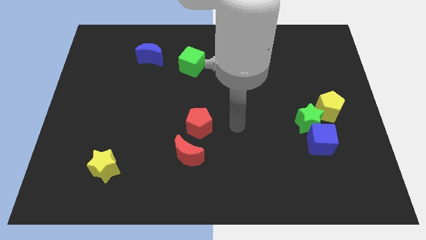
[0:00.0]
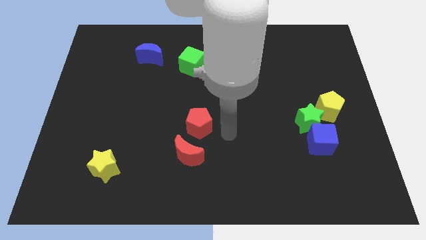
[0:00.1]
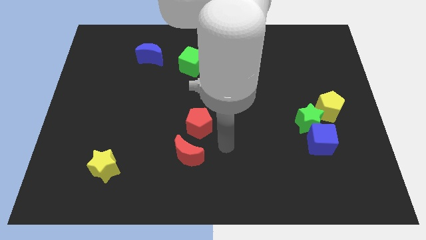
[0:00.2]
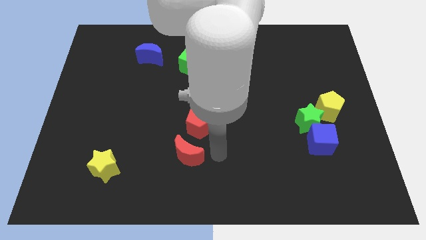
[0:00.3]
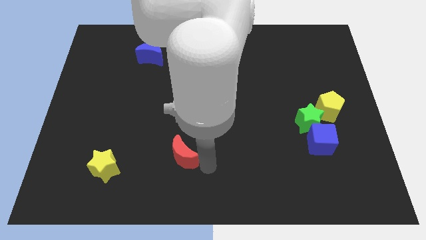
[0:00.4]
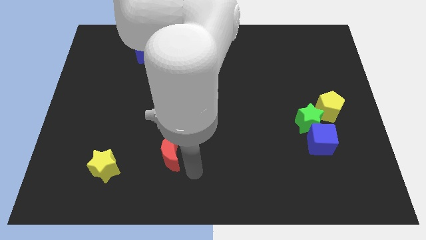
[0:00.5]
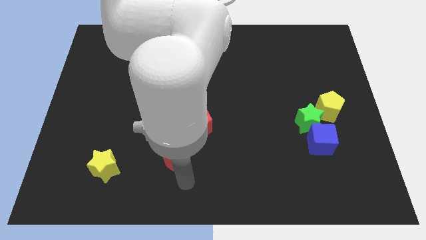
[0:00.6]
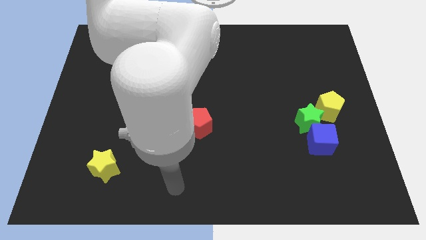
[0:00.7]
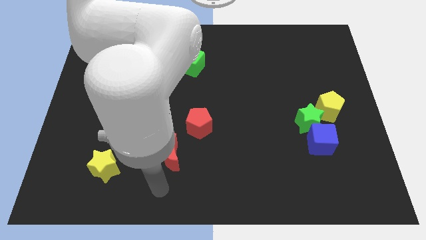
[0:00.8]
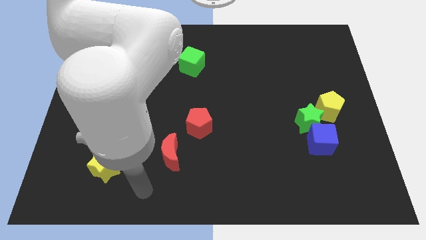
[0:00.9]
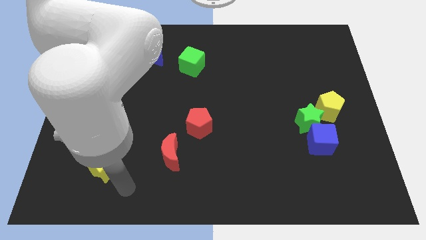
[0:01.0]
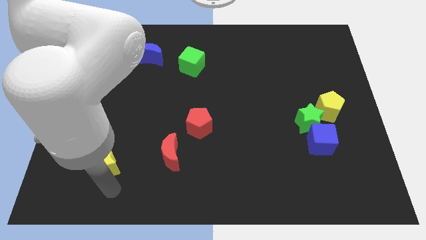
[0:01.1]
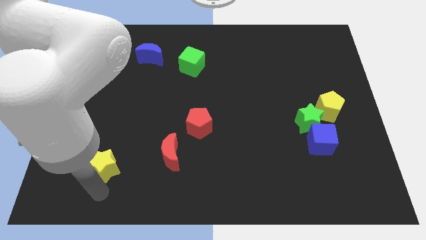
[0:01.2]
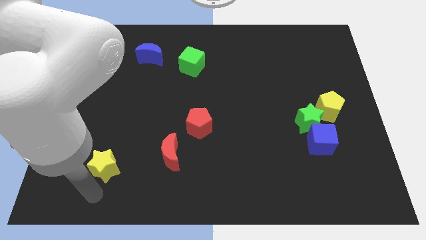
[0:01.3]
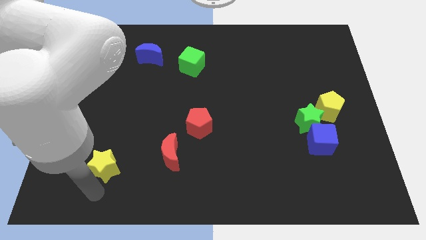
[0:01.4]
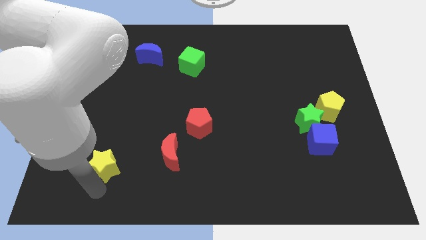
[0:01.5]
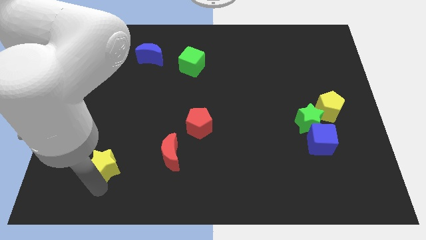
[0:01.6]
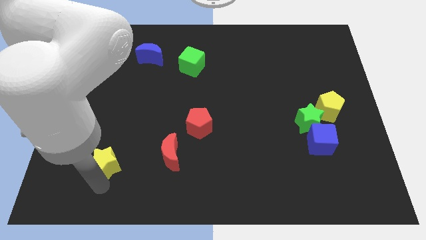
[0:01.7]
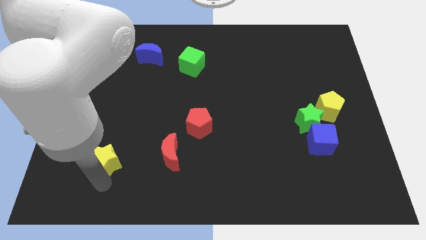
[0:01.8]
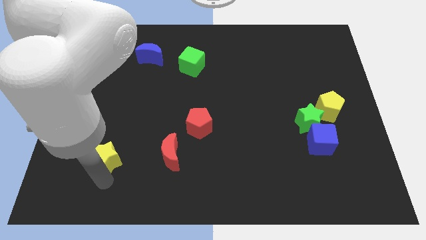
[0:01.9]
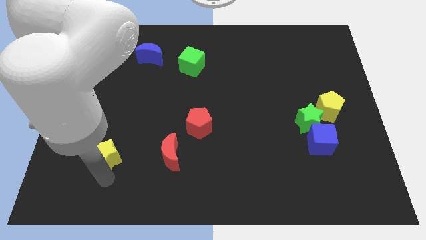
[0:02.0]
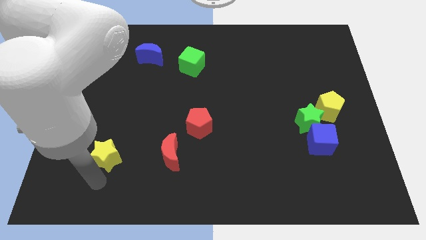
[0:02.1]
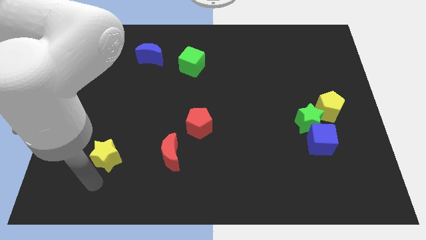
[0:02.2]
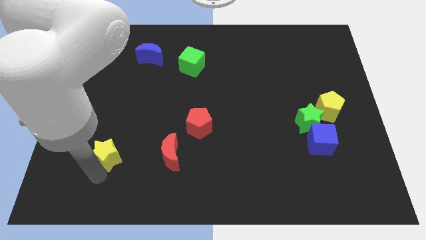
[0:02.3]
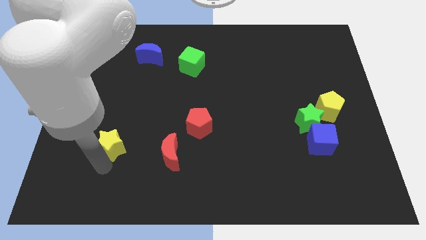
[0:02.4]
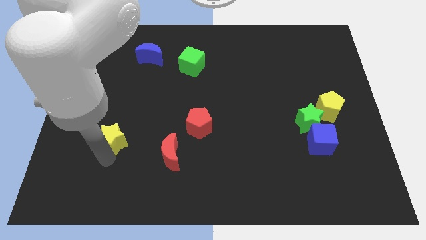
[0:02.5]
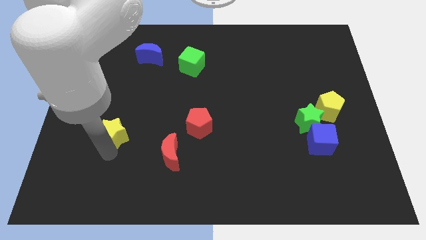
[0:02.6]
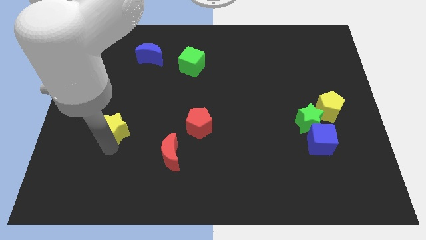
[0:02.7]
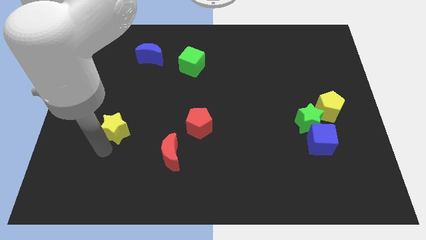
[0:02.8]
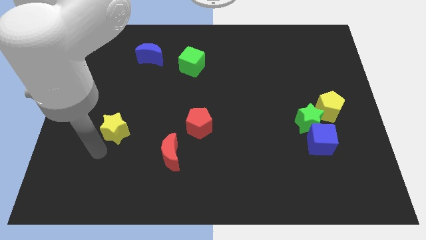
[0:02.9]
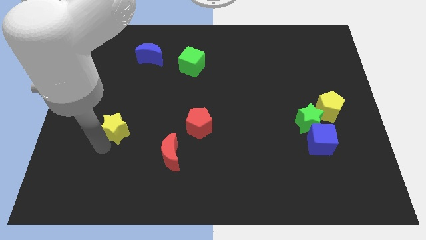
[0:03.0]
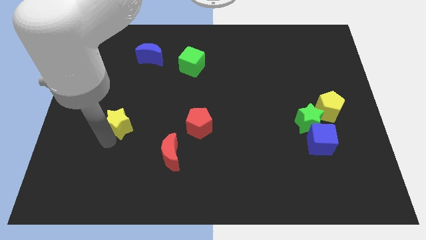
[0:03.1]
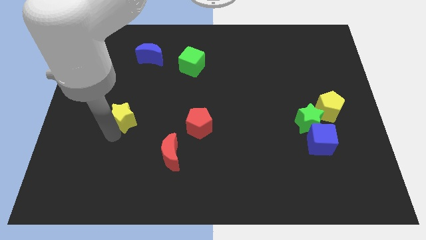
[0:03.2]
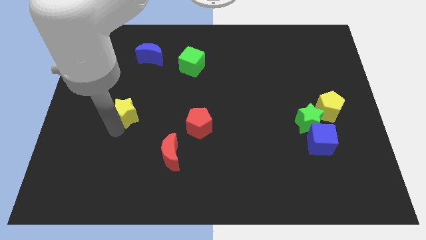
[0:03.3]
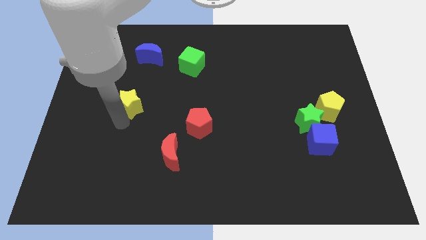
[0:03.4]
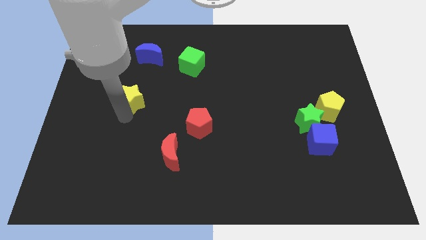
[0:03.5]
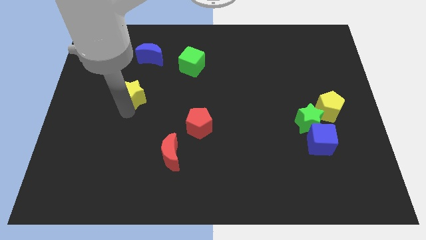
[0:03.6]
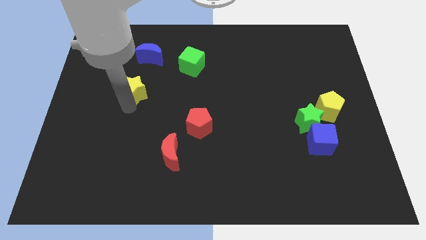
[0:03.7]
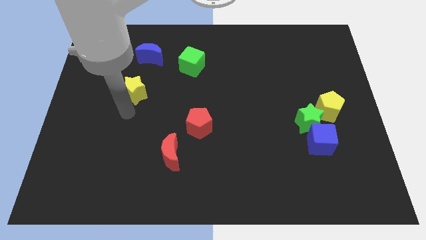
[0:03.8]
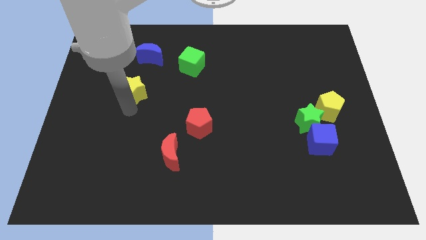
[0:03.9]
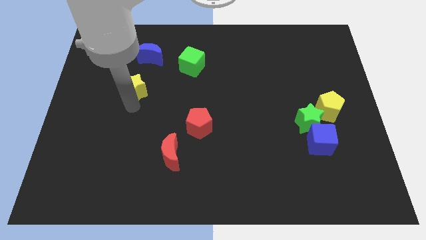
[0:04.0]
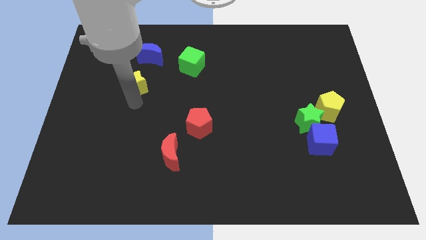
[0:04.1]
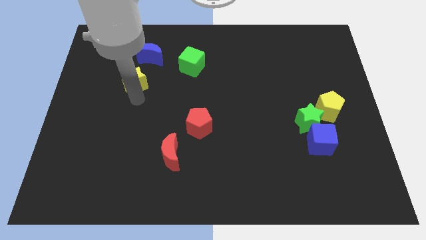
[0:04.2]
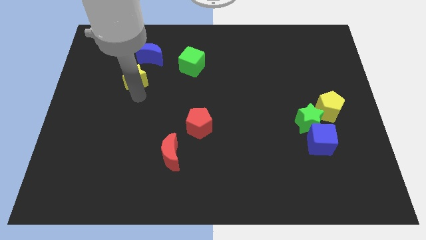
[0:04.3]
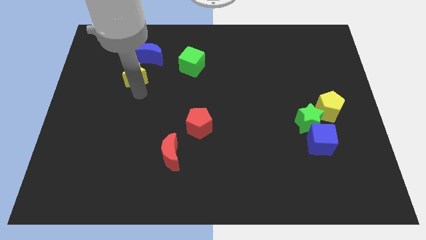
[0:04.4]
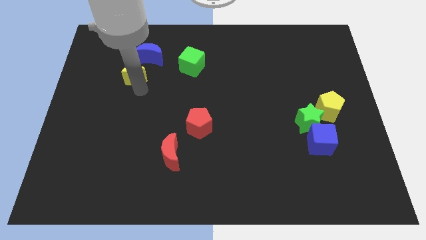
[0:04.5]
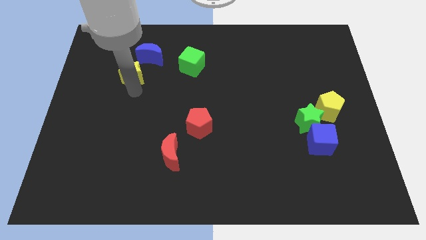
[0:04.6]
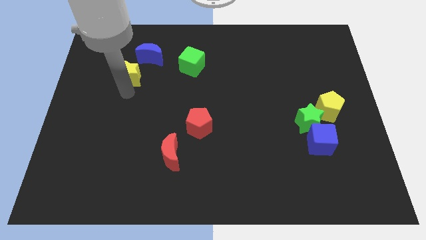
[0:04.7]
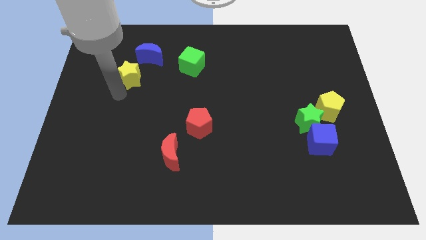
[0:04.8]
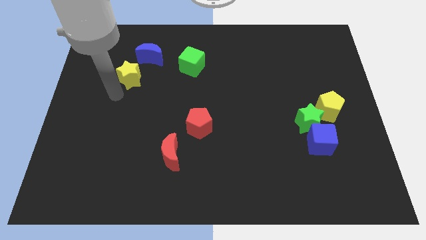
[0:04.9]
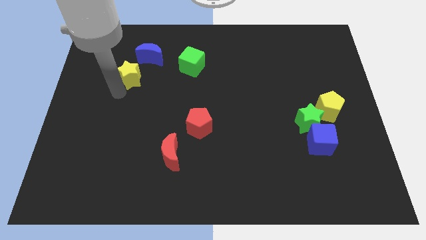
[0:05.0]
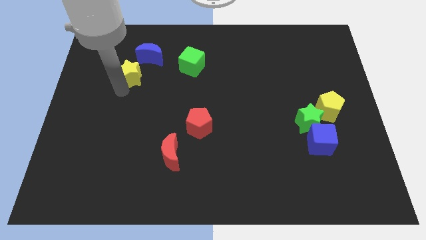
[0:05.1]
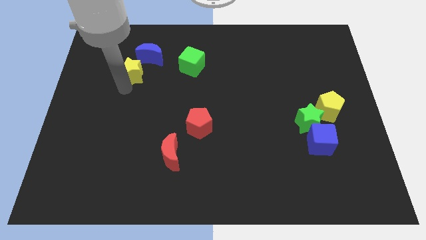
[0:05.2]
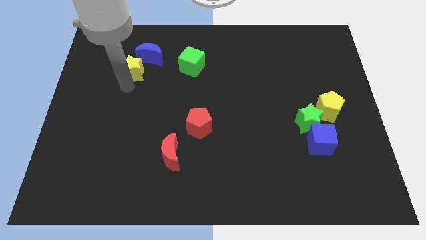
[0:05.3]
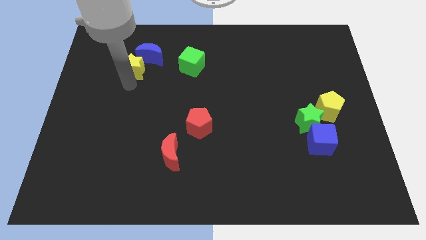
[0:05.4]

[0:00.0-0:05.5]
slide the yellow star next to the blue moon

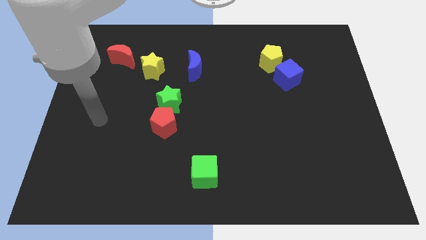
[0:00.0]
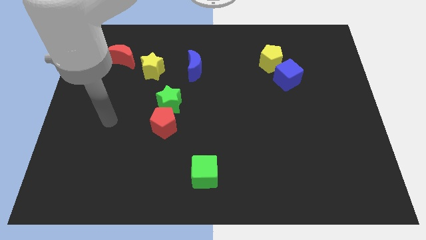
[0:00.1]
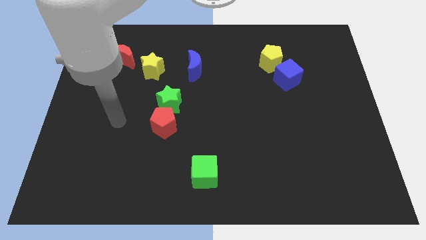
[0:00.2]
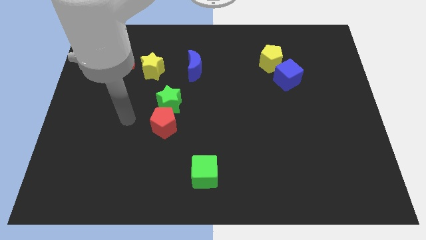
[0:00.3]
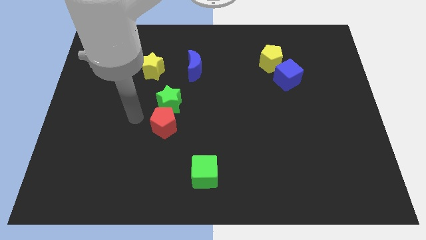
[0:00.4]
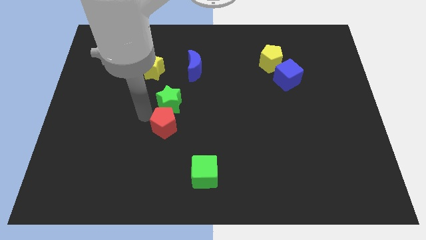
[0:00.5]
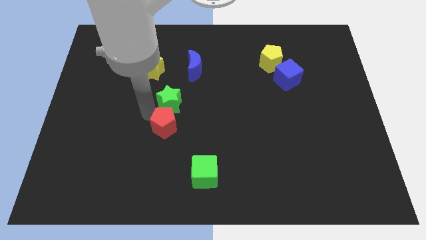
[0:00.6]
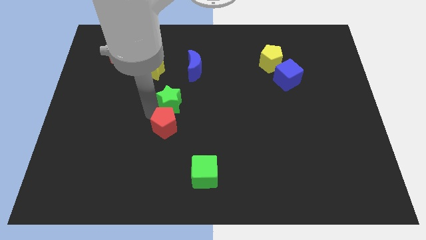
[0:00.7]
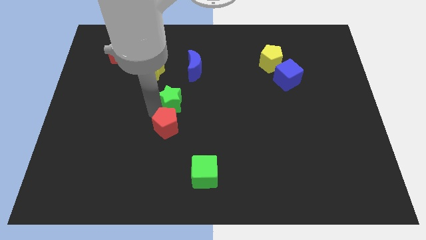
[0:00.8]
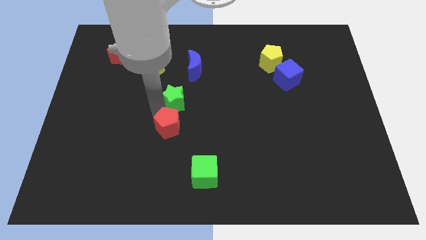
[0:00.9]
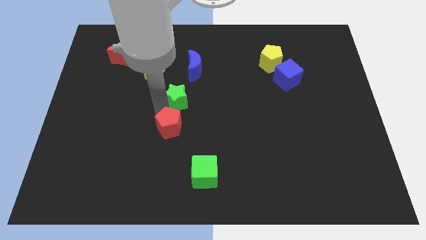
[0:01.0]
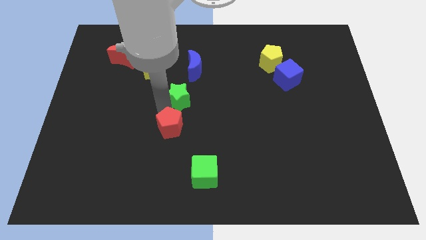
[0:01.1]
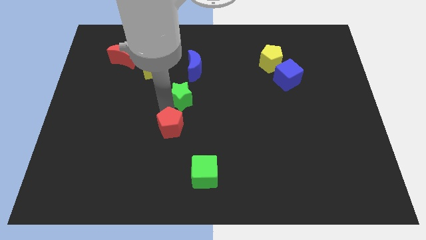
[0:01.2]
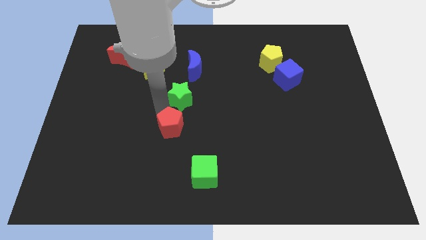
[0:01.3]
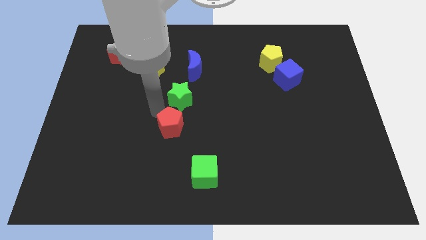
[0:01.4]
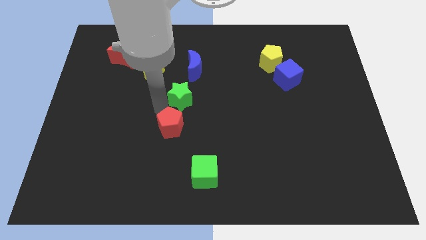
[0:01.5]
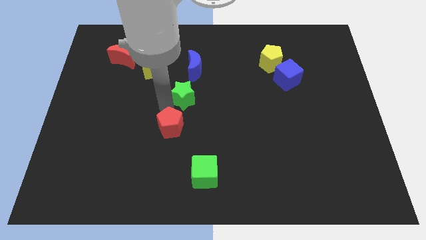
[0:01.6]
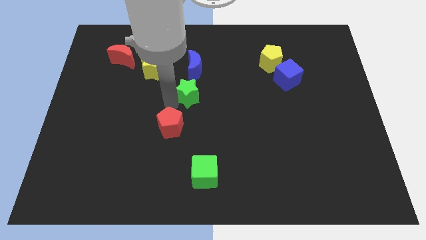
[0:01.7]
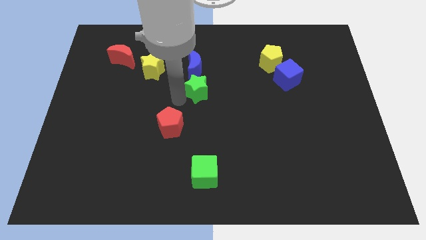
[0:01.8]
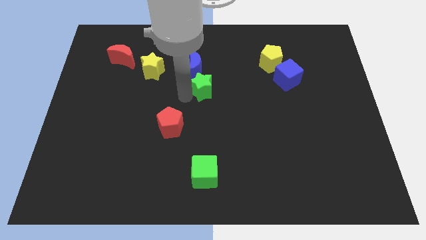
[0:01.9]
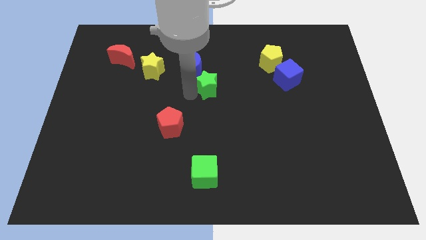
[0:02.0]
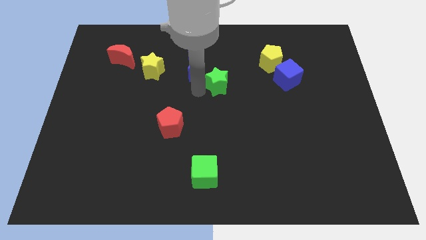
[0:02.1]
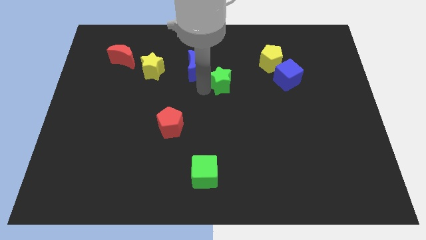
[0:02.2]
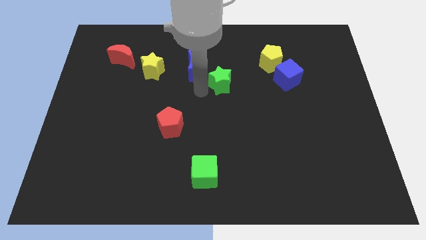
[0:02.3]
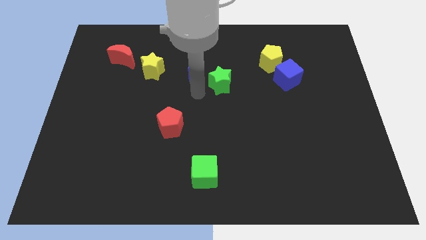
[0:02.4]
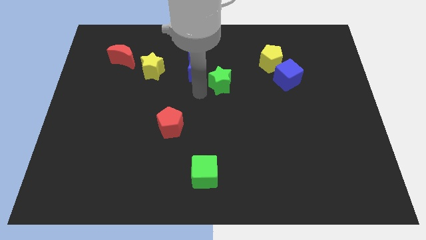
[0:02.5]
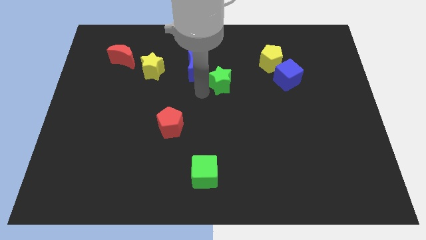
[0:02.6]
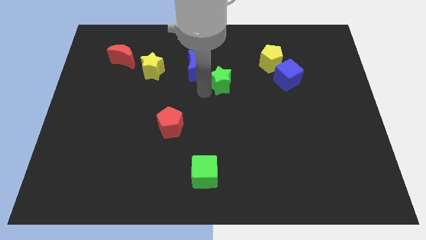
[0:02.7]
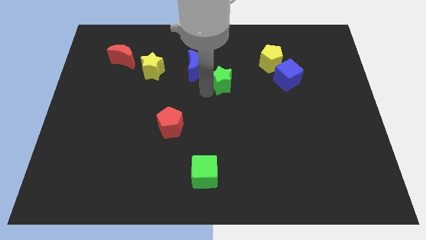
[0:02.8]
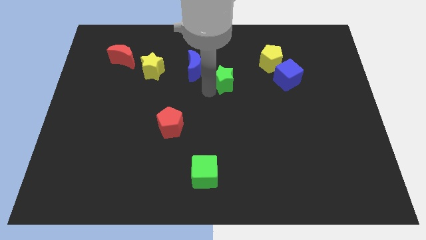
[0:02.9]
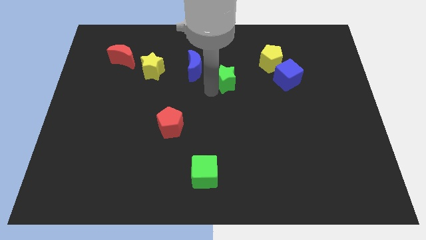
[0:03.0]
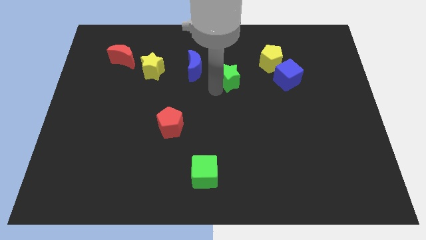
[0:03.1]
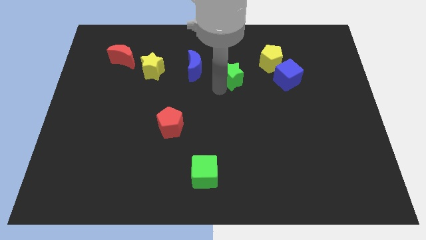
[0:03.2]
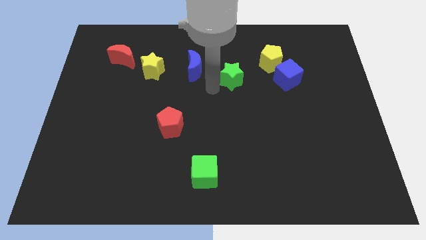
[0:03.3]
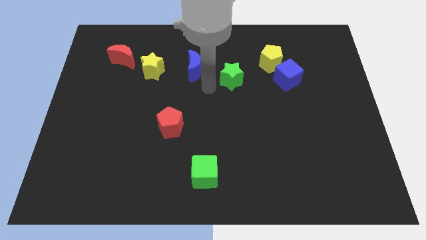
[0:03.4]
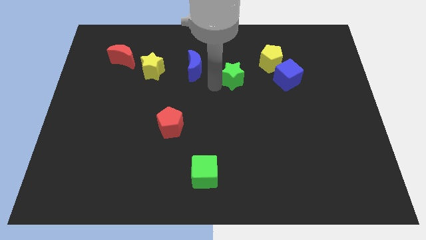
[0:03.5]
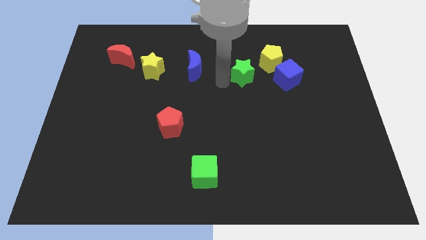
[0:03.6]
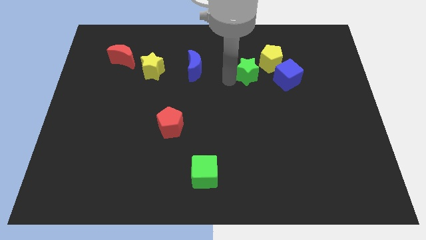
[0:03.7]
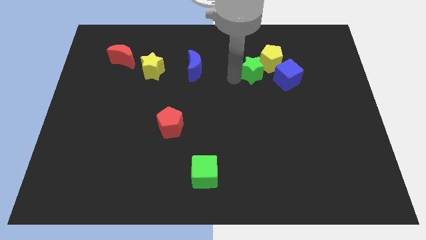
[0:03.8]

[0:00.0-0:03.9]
move the green star next to the yellow pentagon
